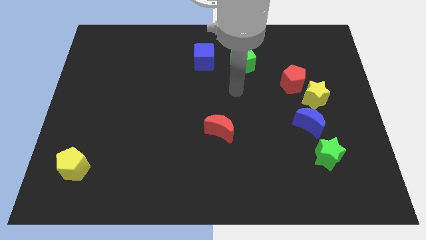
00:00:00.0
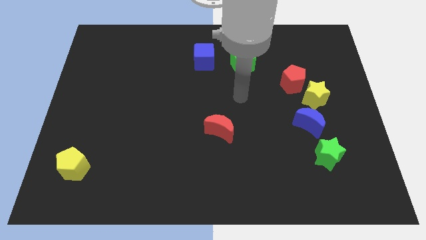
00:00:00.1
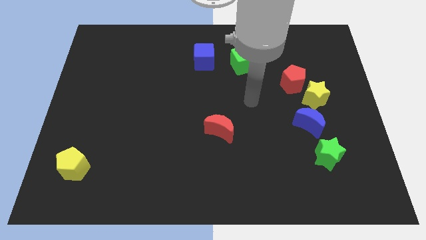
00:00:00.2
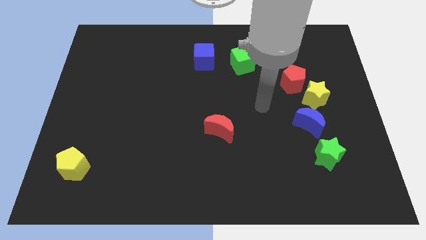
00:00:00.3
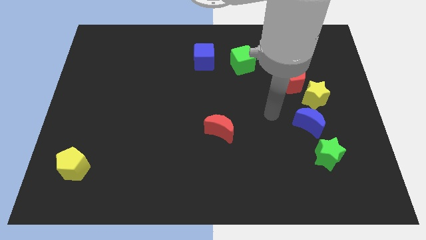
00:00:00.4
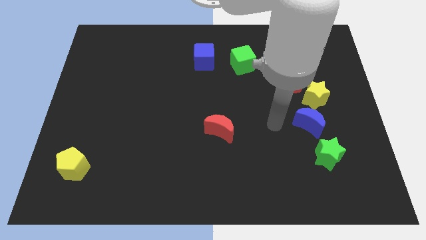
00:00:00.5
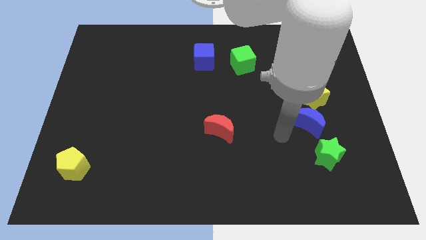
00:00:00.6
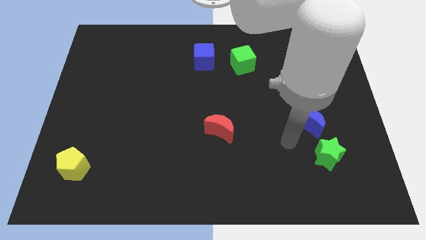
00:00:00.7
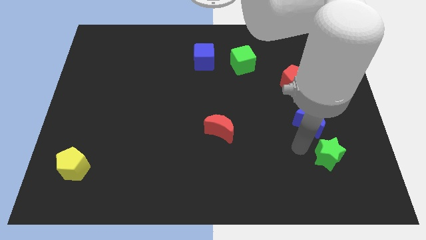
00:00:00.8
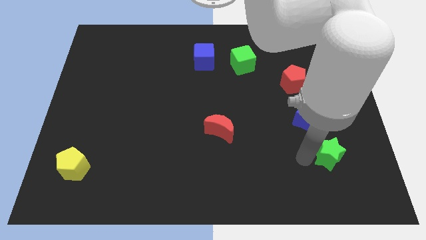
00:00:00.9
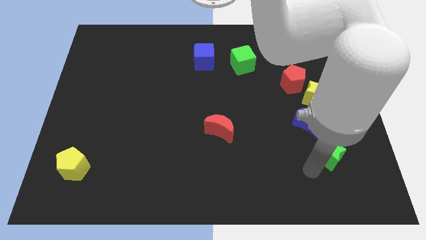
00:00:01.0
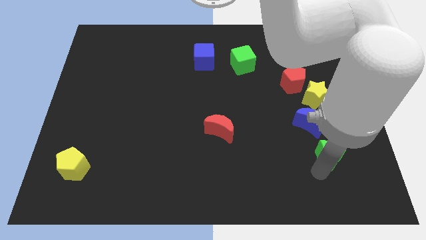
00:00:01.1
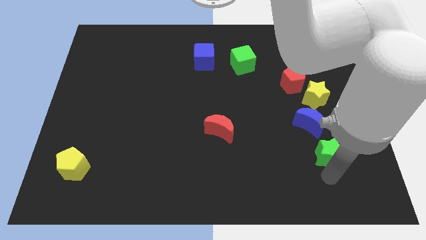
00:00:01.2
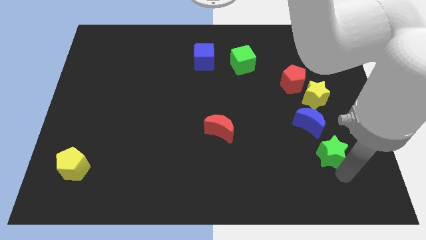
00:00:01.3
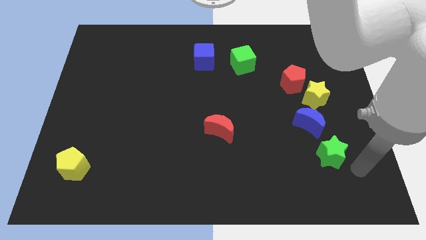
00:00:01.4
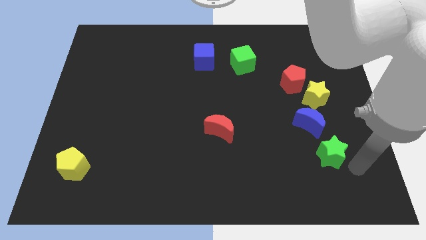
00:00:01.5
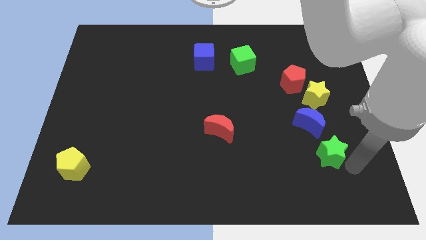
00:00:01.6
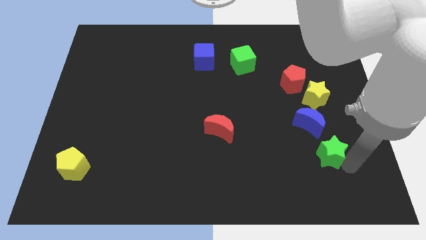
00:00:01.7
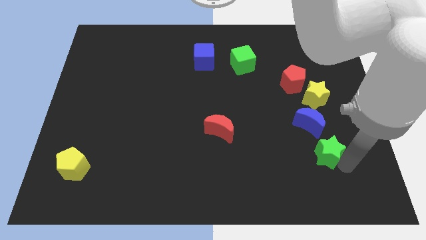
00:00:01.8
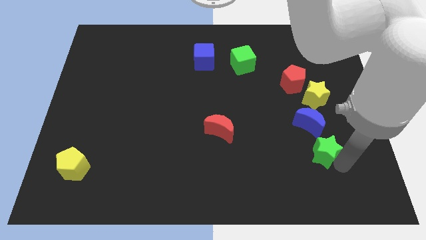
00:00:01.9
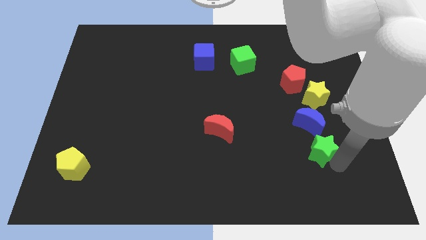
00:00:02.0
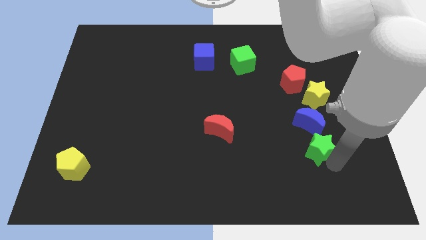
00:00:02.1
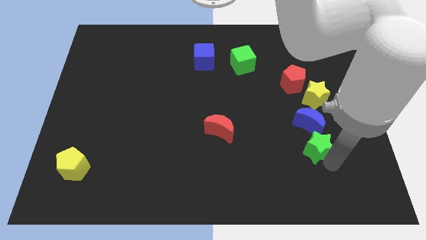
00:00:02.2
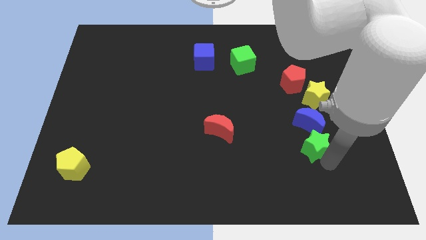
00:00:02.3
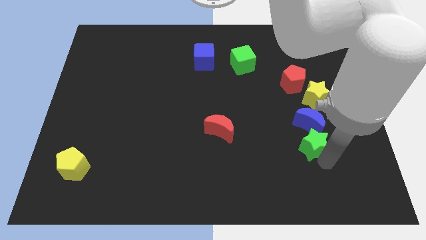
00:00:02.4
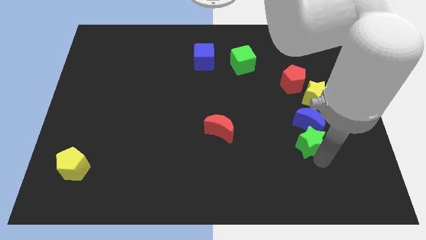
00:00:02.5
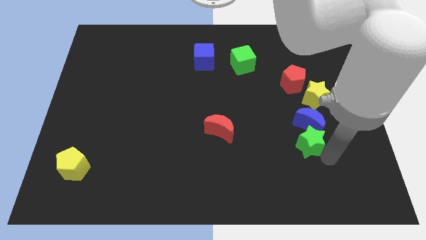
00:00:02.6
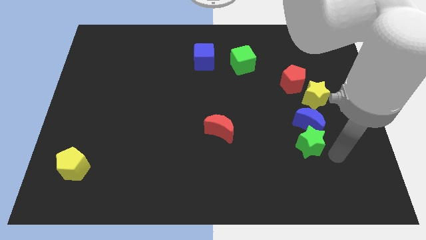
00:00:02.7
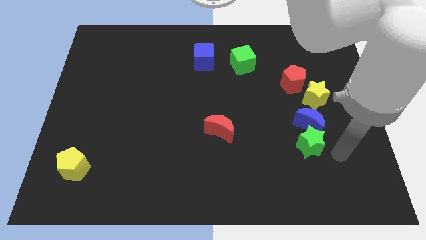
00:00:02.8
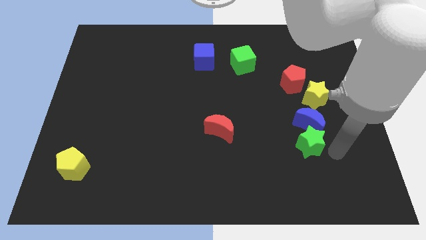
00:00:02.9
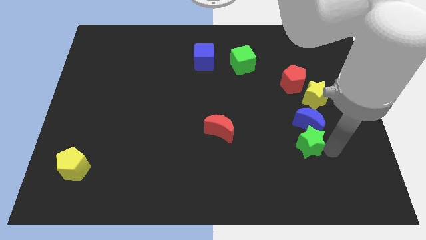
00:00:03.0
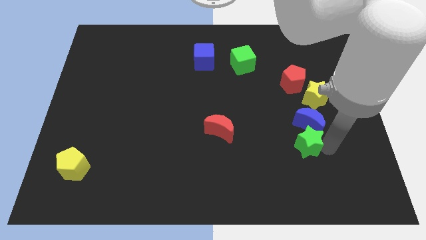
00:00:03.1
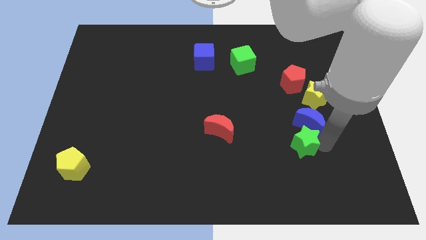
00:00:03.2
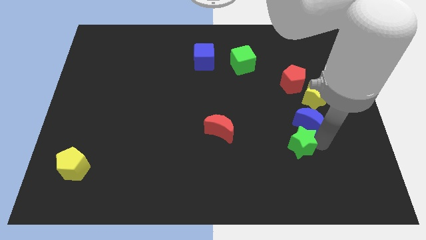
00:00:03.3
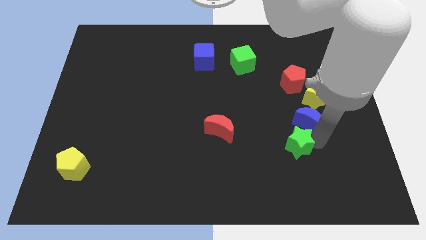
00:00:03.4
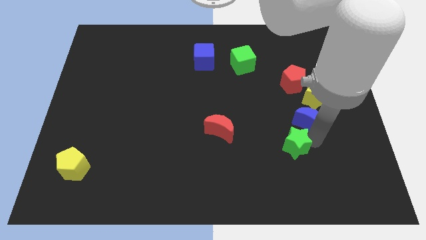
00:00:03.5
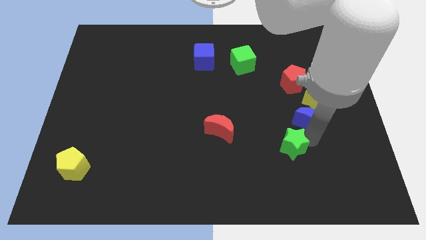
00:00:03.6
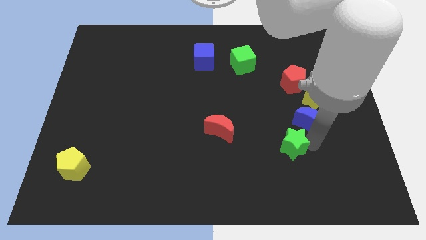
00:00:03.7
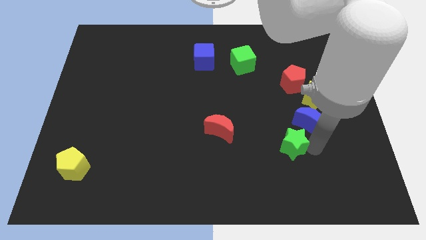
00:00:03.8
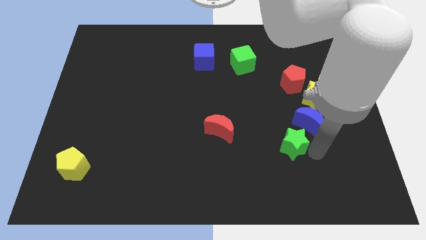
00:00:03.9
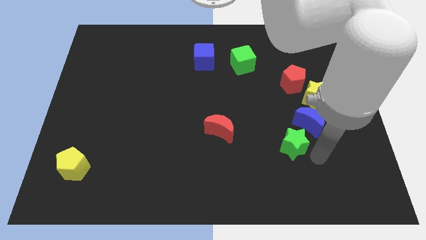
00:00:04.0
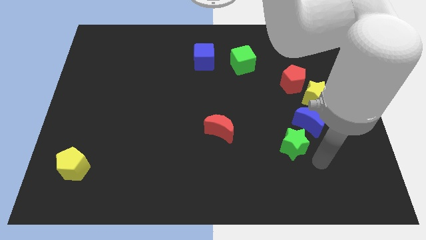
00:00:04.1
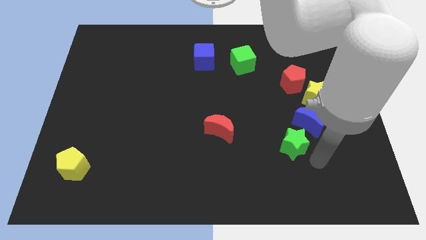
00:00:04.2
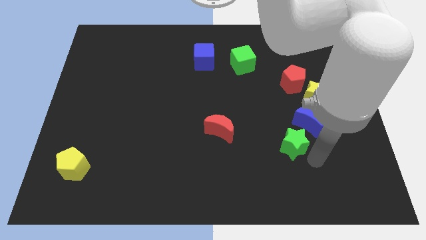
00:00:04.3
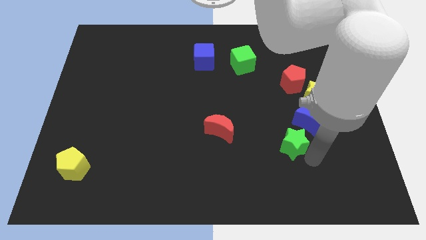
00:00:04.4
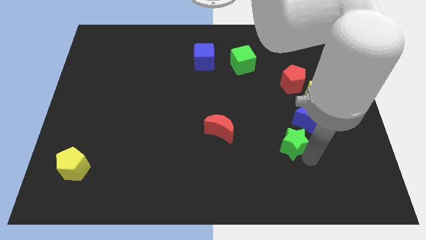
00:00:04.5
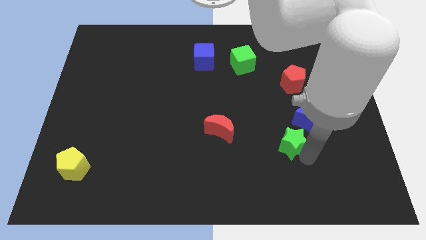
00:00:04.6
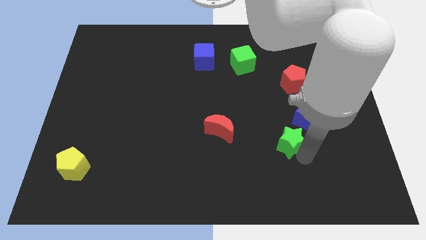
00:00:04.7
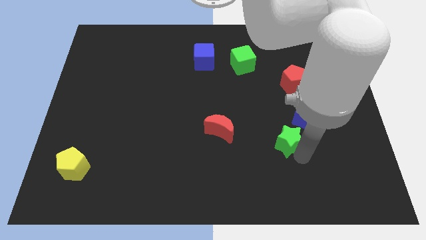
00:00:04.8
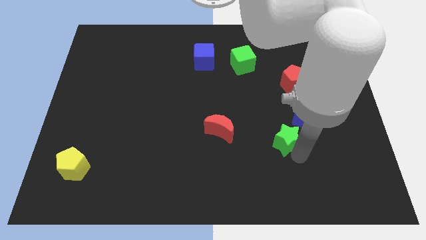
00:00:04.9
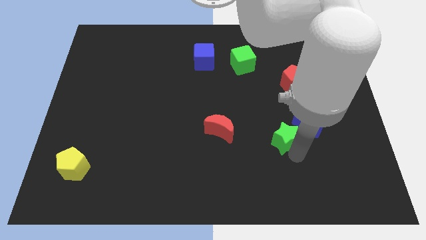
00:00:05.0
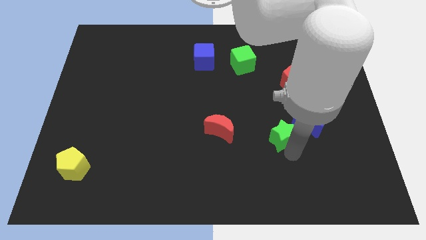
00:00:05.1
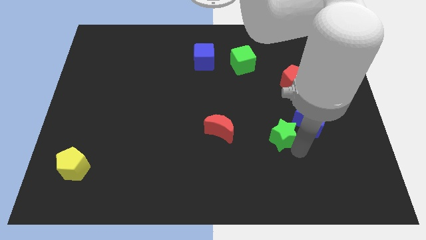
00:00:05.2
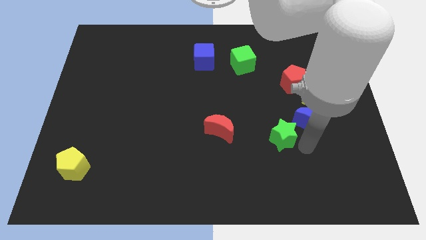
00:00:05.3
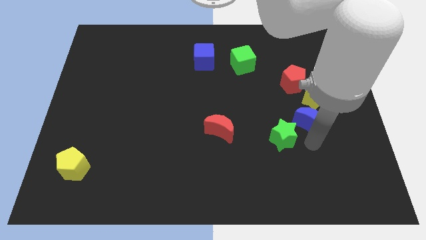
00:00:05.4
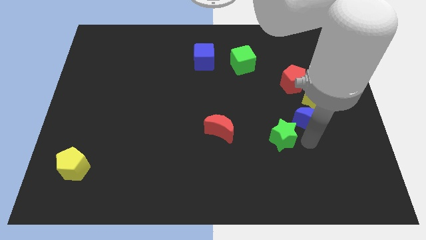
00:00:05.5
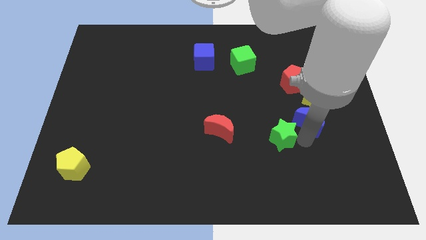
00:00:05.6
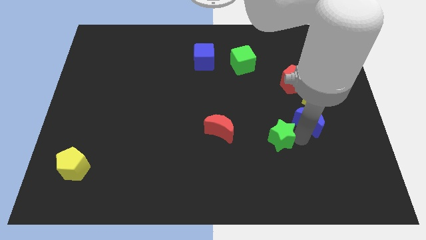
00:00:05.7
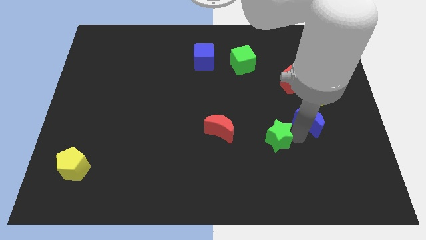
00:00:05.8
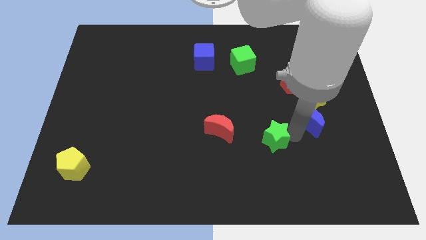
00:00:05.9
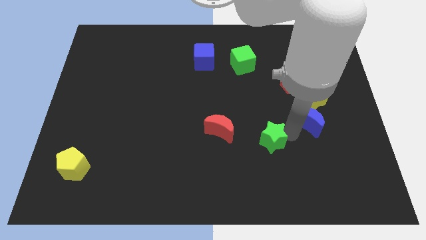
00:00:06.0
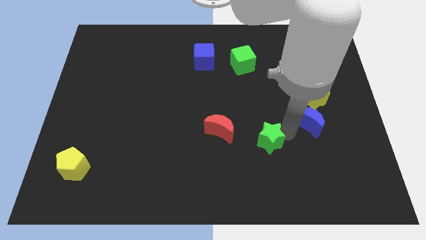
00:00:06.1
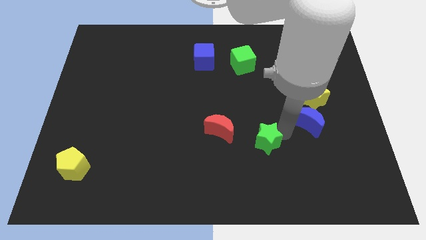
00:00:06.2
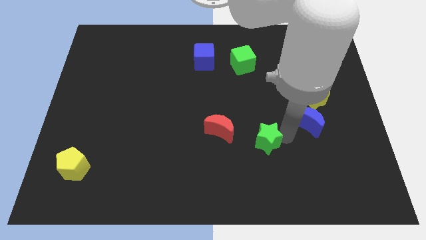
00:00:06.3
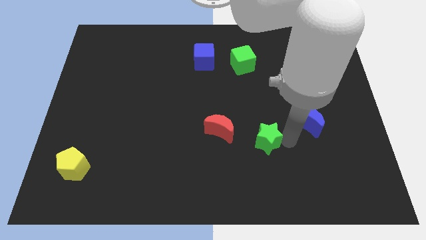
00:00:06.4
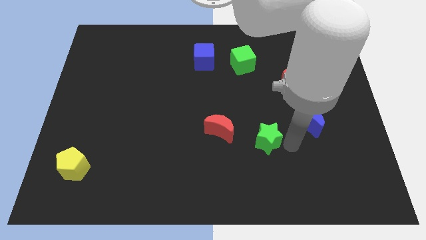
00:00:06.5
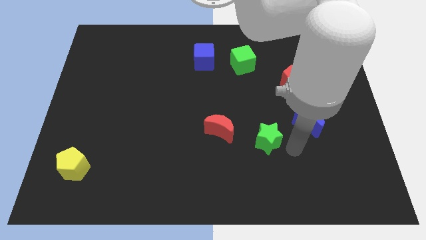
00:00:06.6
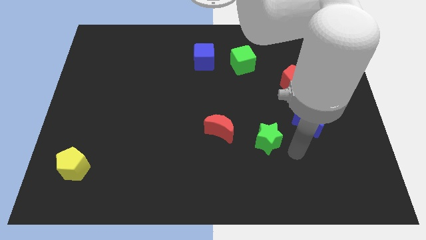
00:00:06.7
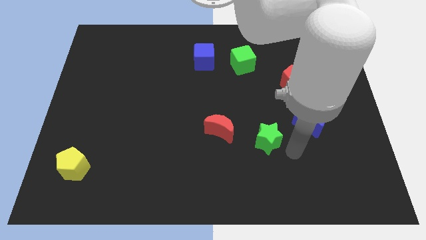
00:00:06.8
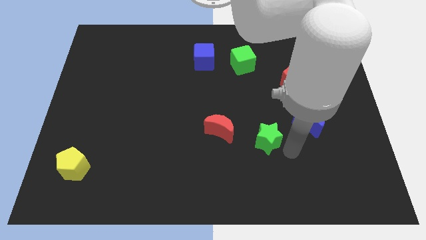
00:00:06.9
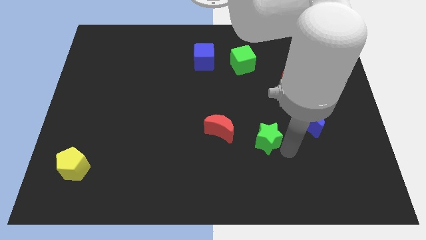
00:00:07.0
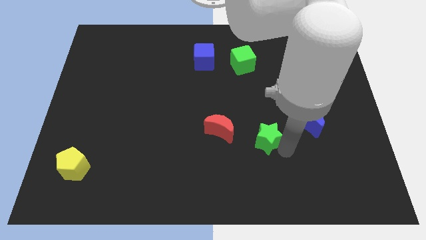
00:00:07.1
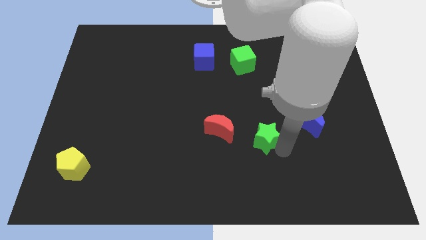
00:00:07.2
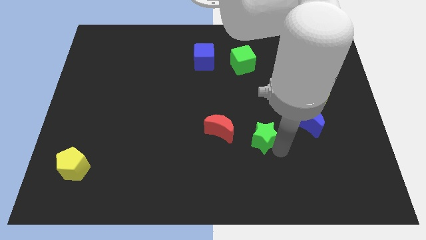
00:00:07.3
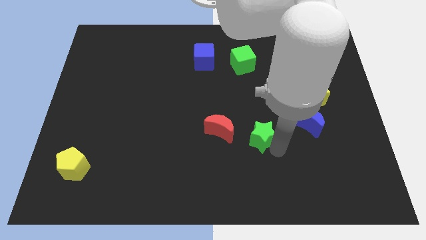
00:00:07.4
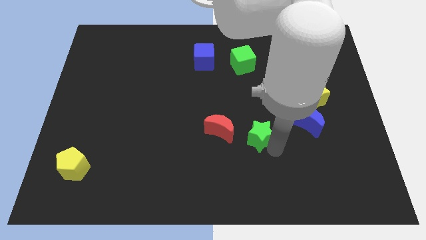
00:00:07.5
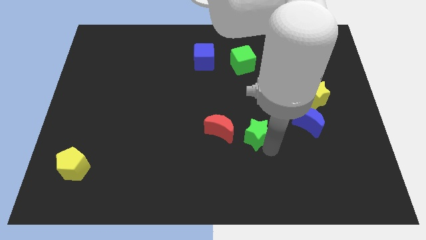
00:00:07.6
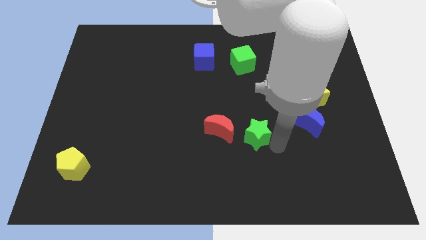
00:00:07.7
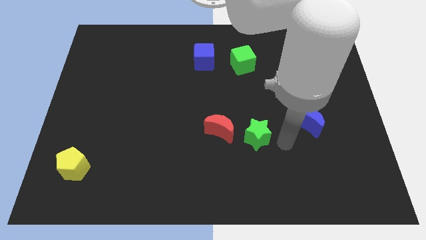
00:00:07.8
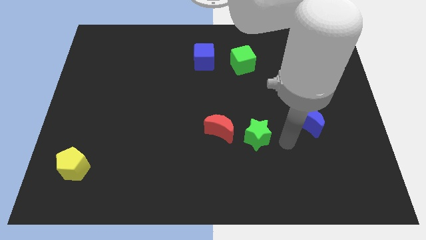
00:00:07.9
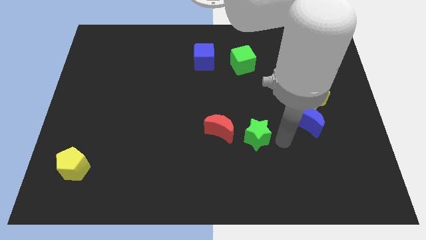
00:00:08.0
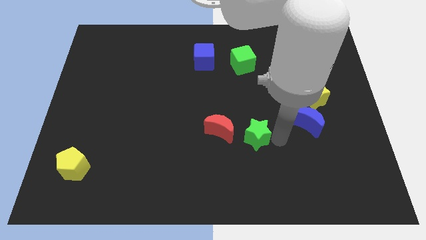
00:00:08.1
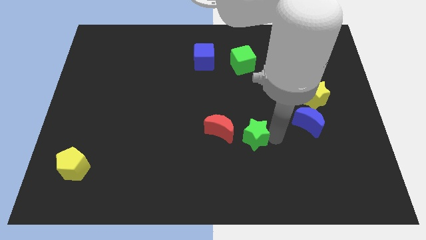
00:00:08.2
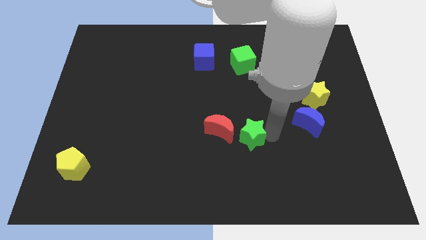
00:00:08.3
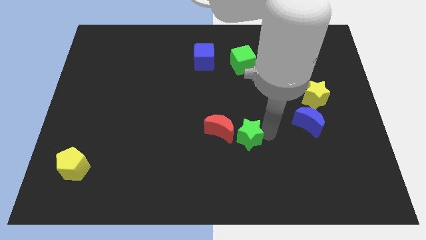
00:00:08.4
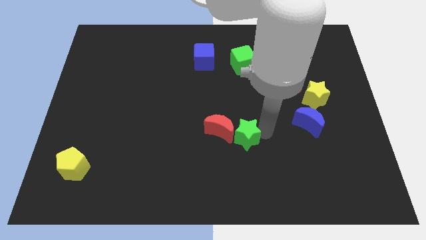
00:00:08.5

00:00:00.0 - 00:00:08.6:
slide the green star close to the red moon
